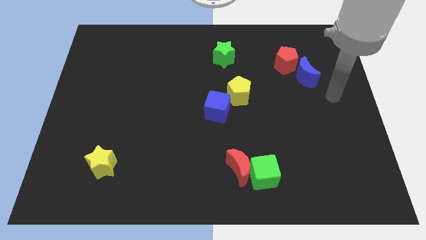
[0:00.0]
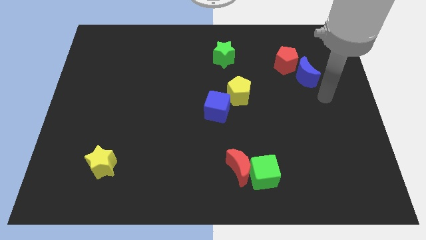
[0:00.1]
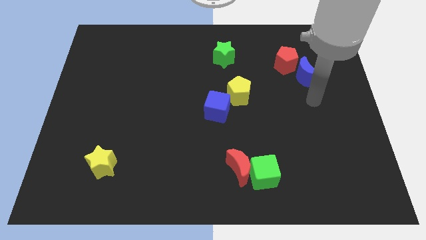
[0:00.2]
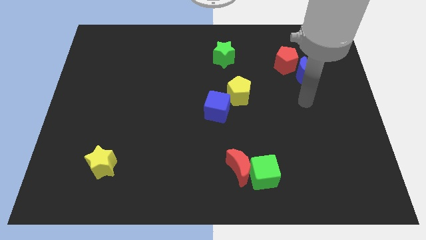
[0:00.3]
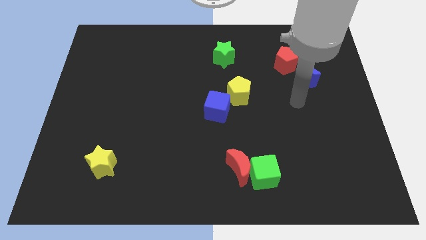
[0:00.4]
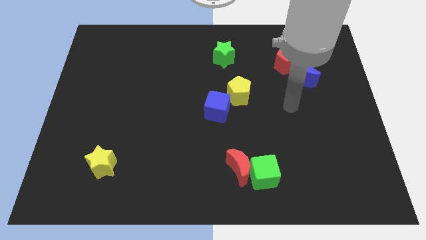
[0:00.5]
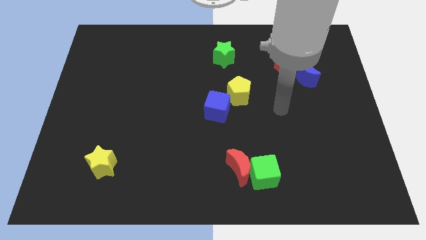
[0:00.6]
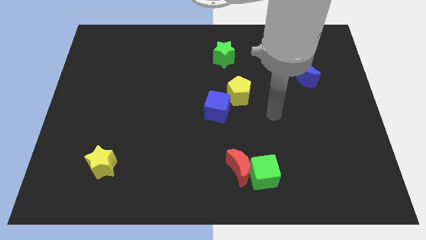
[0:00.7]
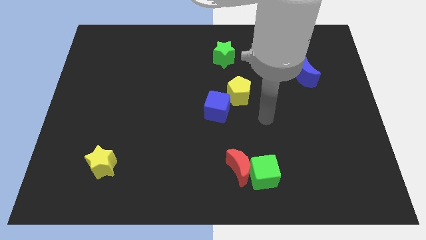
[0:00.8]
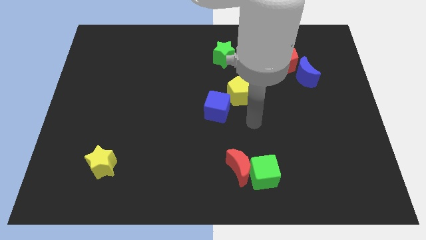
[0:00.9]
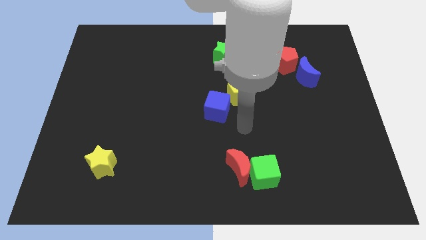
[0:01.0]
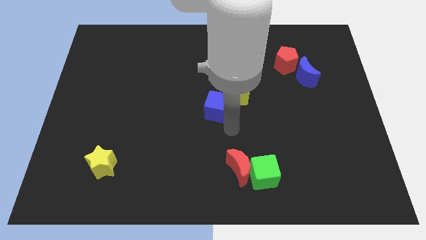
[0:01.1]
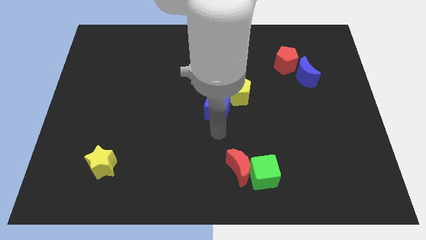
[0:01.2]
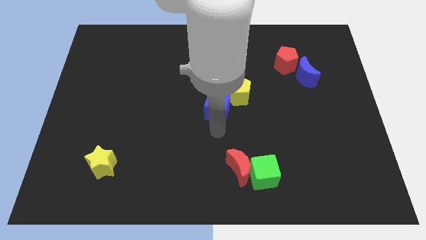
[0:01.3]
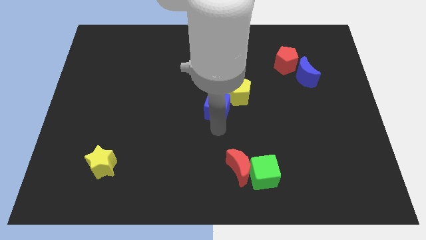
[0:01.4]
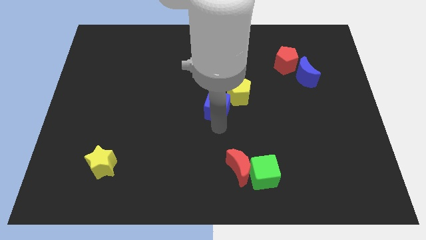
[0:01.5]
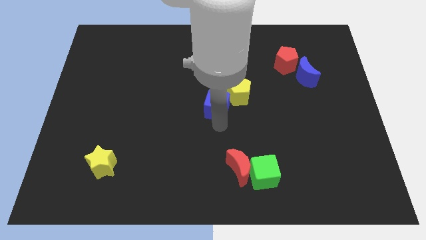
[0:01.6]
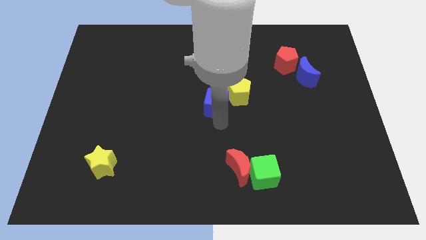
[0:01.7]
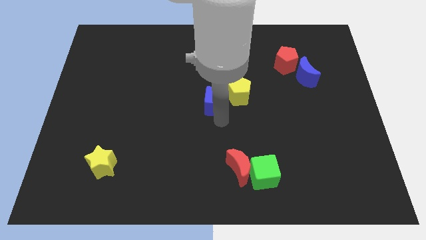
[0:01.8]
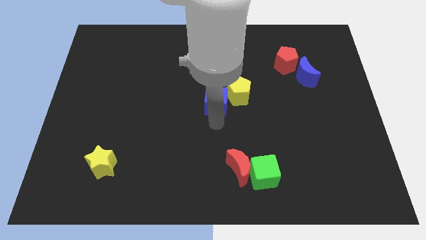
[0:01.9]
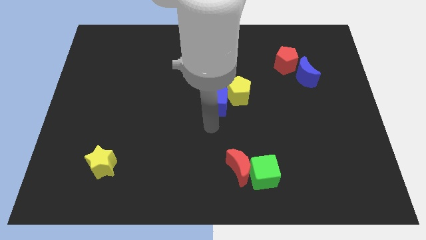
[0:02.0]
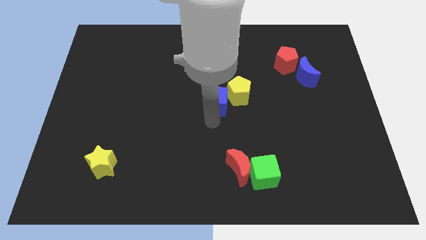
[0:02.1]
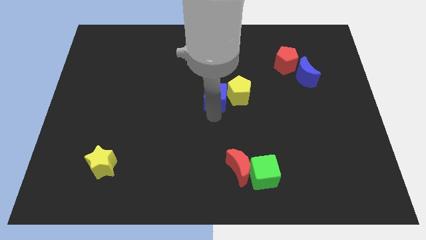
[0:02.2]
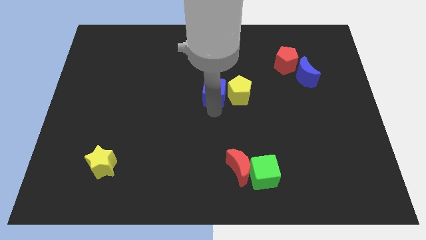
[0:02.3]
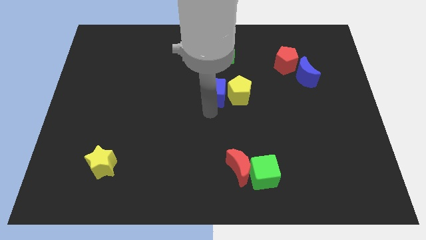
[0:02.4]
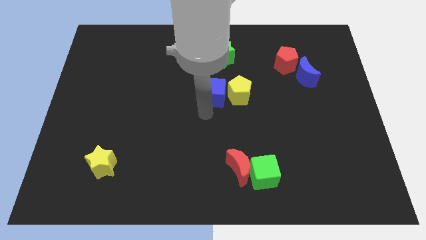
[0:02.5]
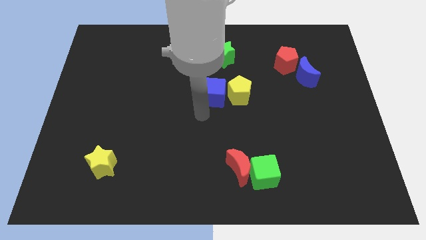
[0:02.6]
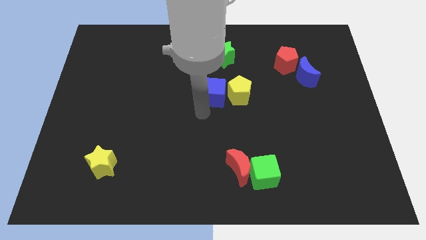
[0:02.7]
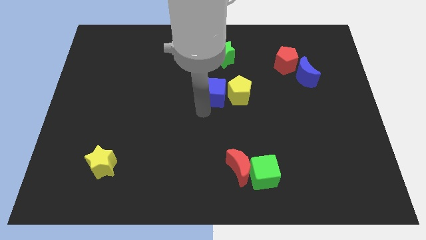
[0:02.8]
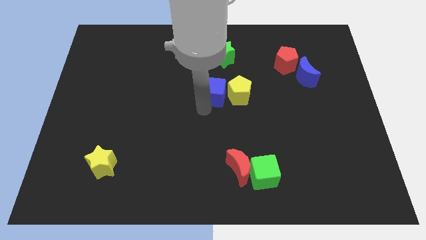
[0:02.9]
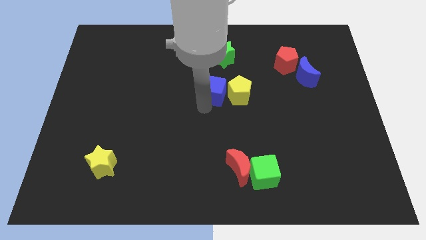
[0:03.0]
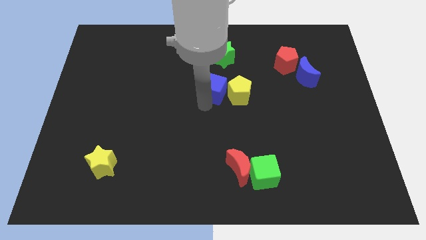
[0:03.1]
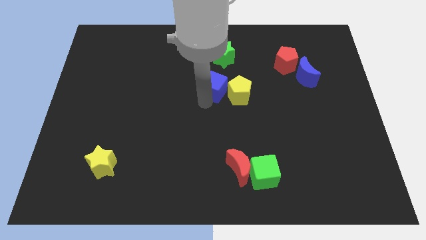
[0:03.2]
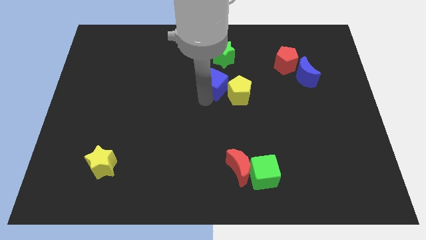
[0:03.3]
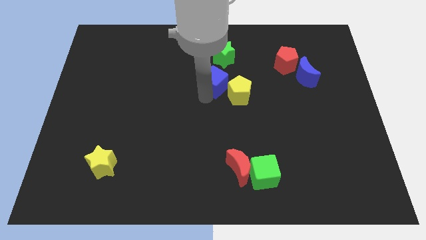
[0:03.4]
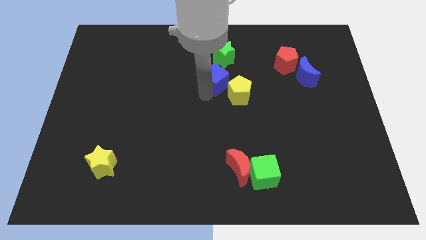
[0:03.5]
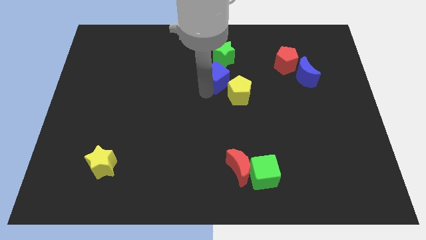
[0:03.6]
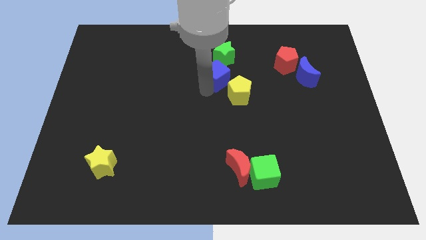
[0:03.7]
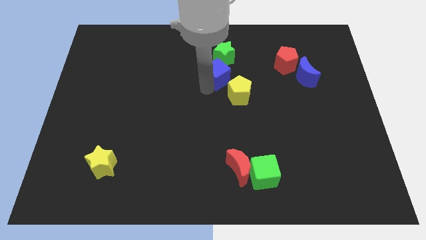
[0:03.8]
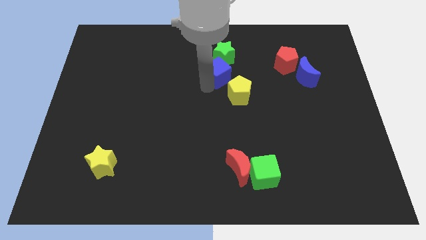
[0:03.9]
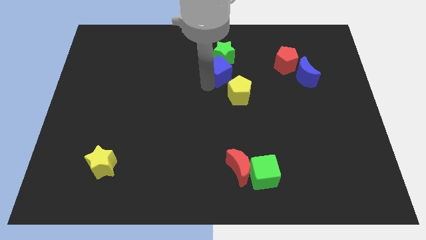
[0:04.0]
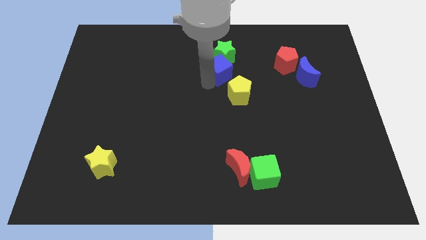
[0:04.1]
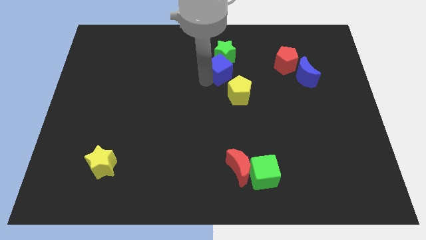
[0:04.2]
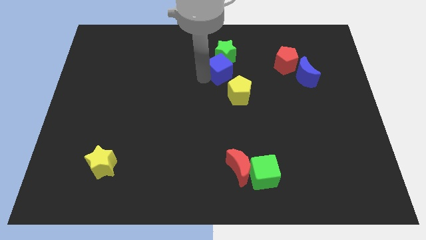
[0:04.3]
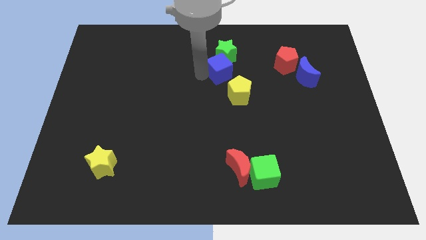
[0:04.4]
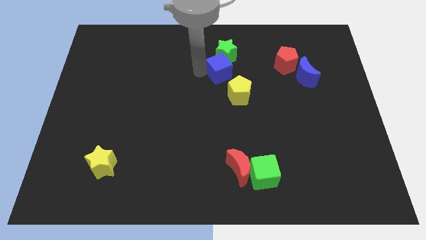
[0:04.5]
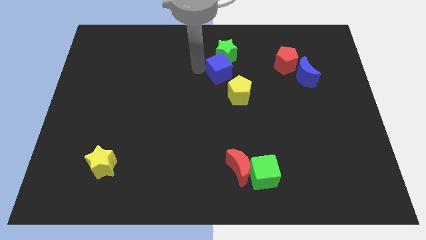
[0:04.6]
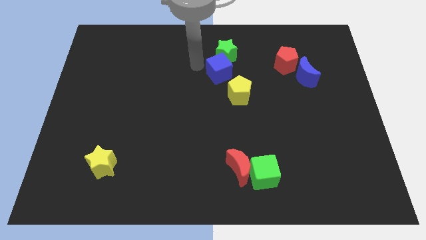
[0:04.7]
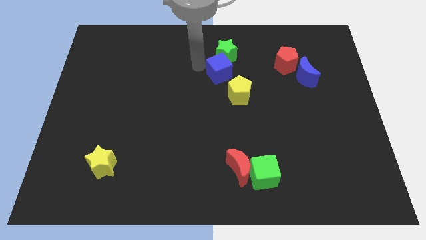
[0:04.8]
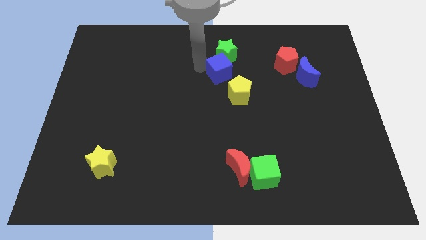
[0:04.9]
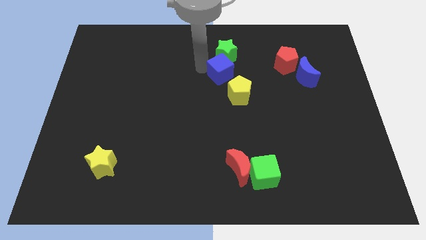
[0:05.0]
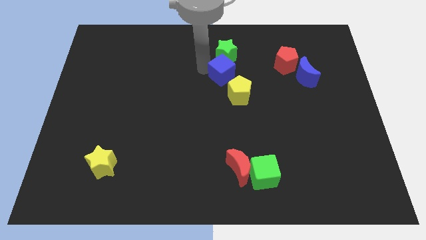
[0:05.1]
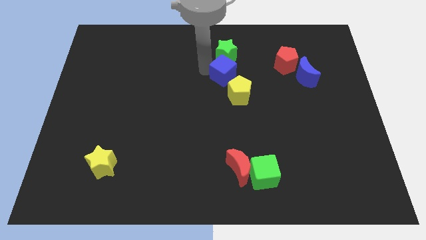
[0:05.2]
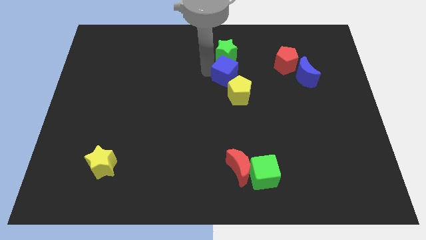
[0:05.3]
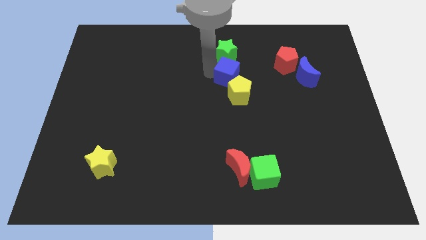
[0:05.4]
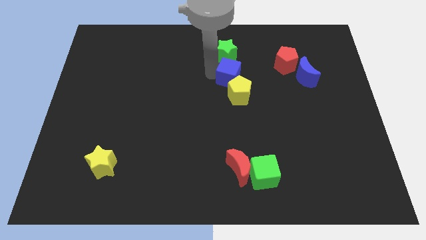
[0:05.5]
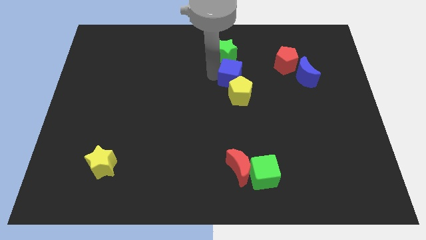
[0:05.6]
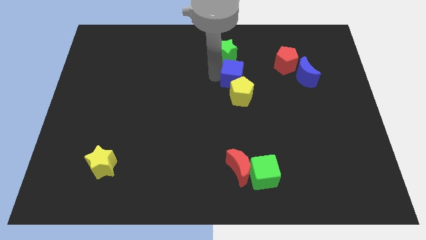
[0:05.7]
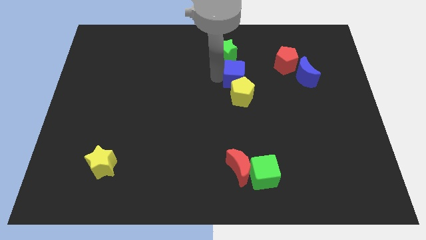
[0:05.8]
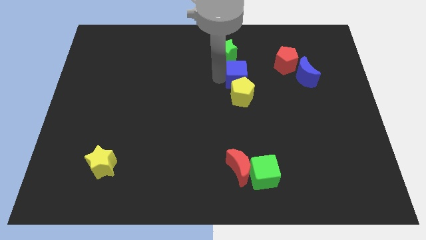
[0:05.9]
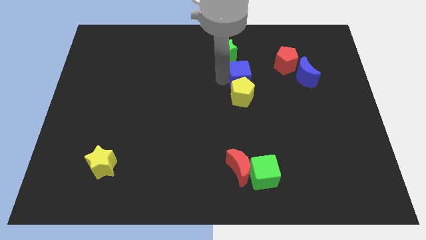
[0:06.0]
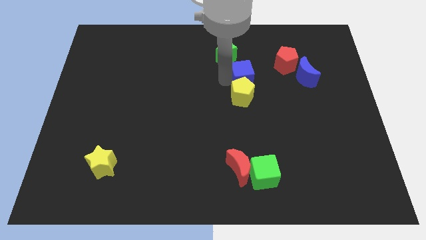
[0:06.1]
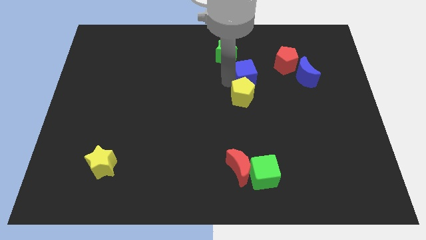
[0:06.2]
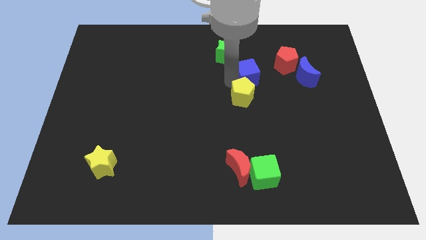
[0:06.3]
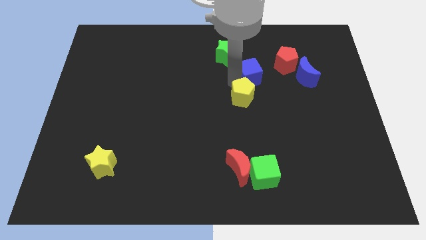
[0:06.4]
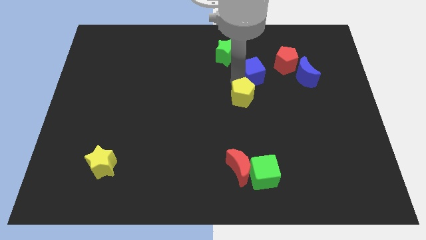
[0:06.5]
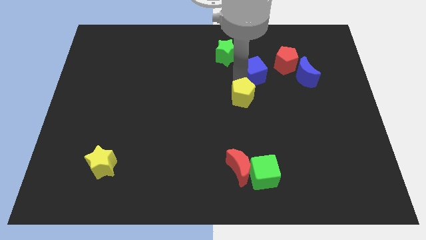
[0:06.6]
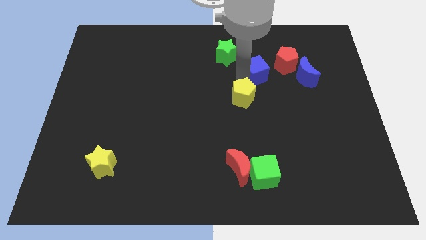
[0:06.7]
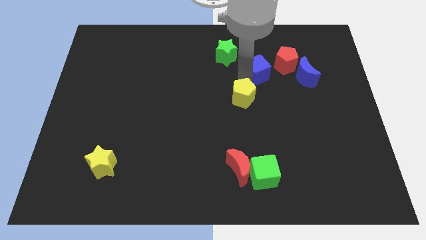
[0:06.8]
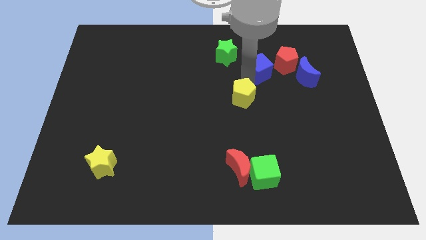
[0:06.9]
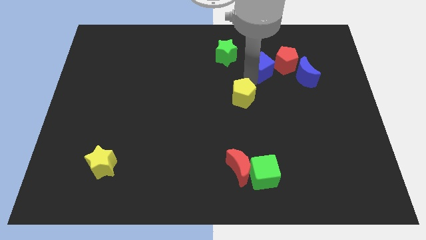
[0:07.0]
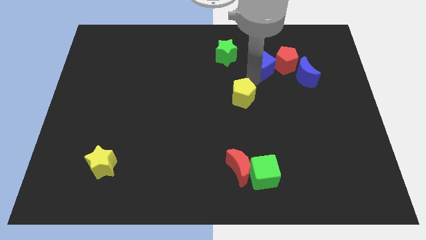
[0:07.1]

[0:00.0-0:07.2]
move the blue cube to the right side of the green star
